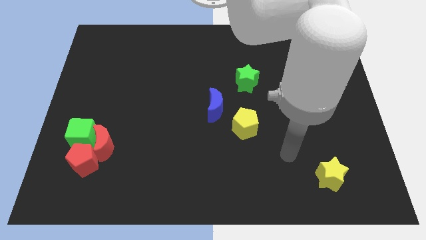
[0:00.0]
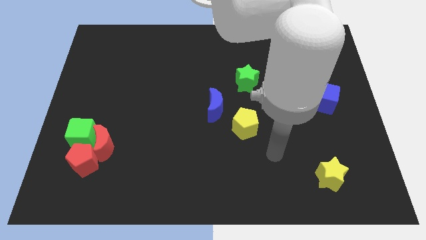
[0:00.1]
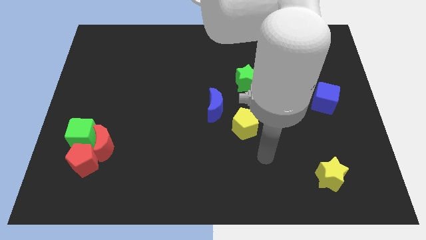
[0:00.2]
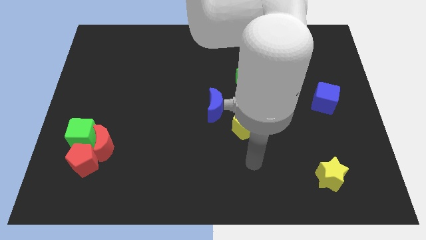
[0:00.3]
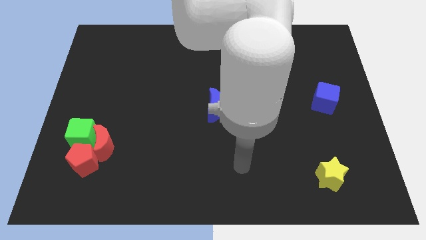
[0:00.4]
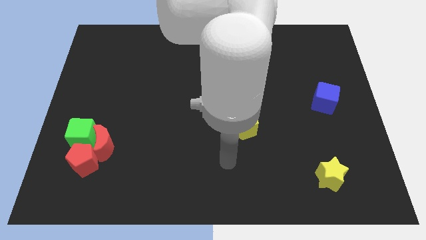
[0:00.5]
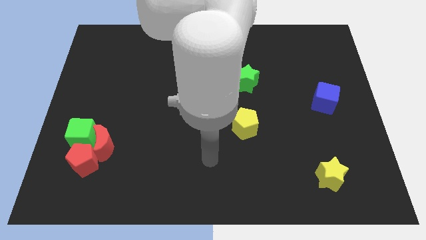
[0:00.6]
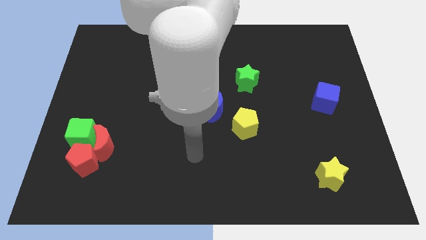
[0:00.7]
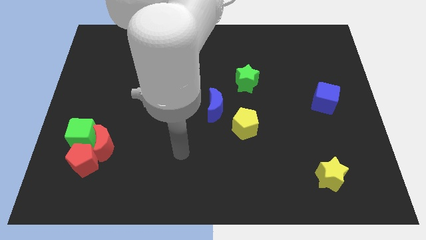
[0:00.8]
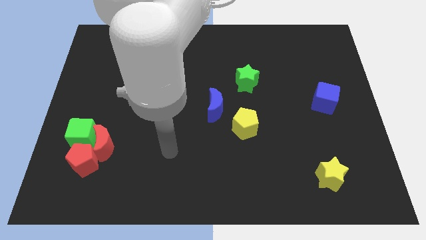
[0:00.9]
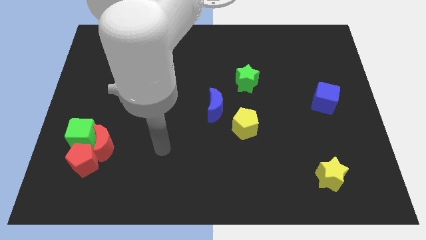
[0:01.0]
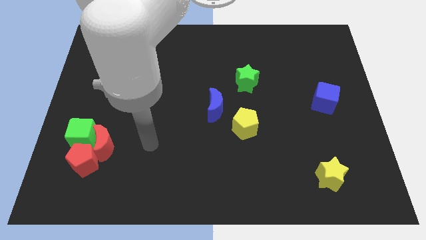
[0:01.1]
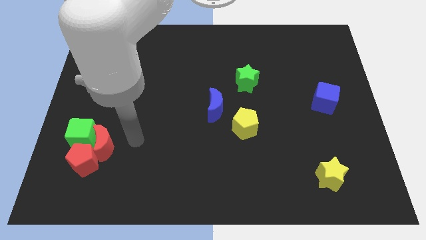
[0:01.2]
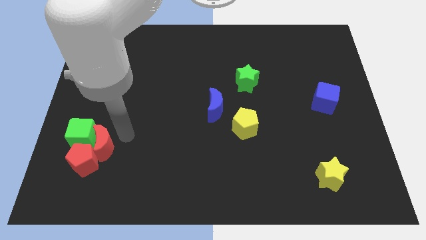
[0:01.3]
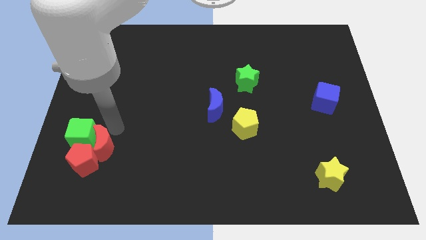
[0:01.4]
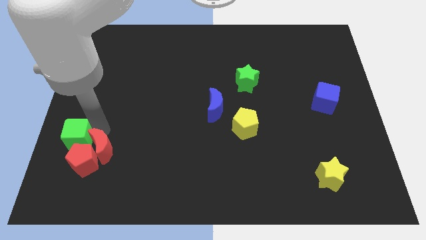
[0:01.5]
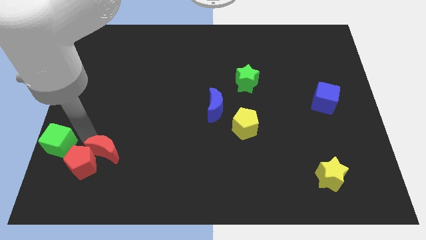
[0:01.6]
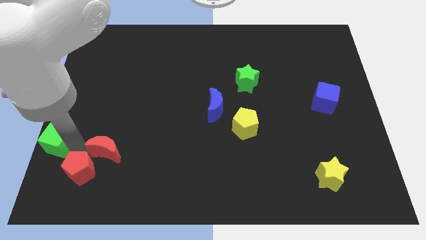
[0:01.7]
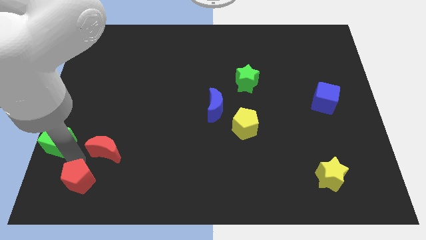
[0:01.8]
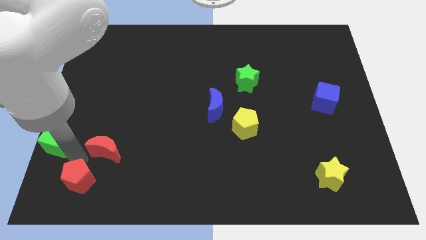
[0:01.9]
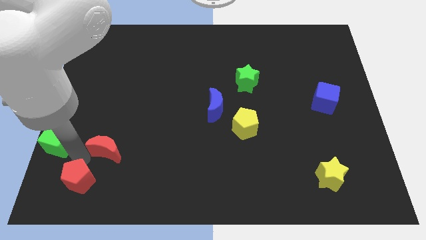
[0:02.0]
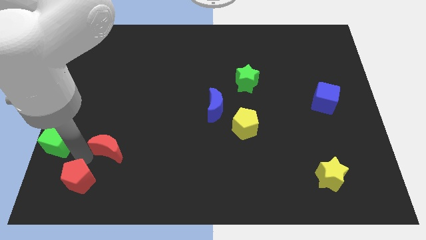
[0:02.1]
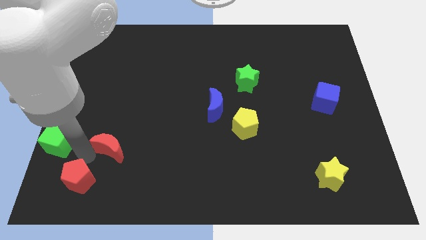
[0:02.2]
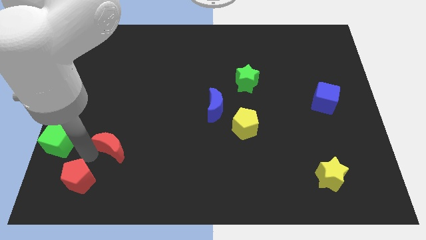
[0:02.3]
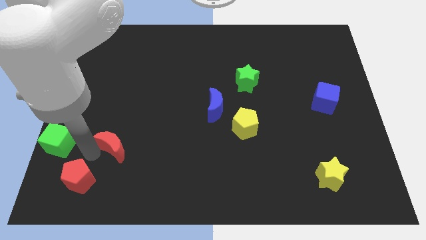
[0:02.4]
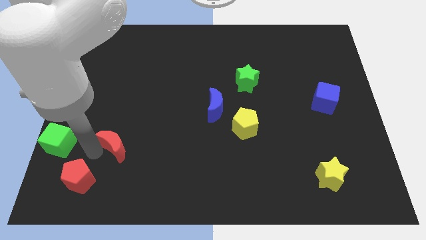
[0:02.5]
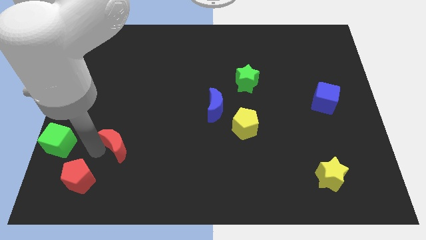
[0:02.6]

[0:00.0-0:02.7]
separate the red moon from the red pentagon and green cube

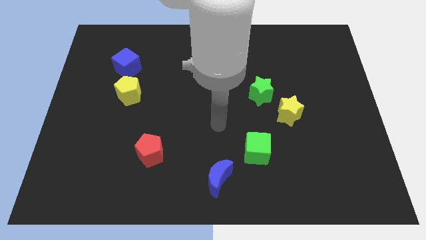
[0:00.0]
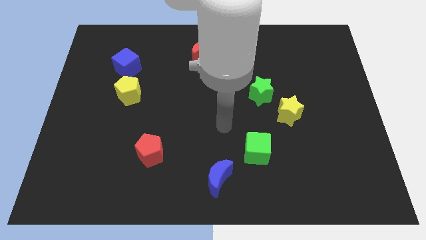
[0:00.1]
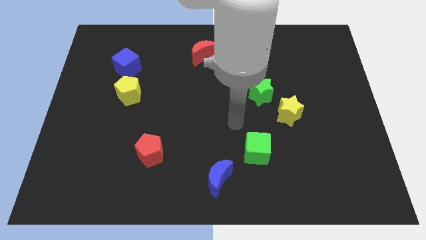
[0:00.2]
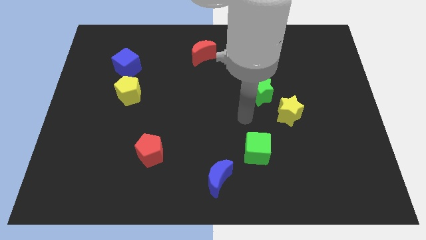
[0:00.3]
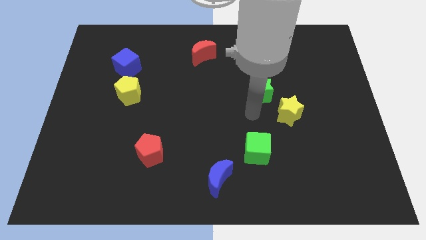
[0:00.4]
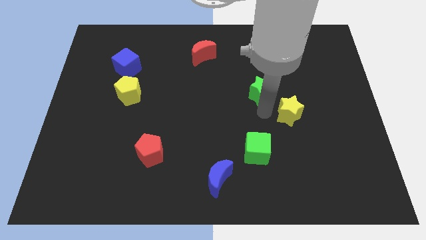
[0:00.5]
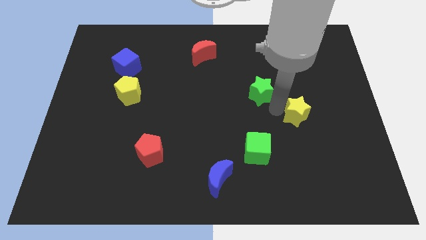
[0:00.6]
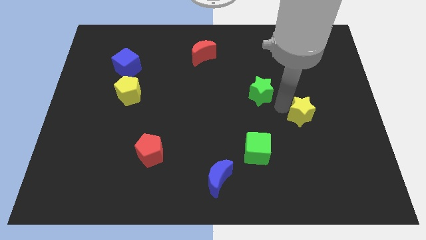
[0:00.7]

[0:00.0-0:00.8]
pull the green star apart from the yellow star

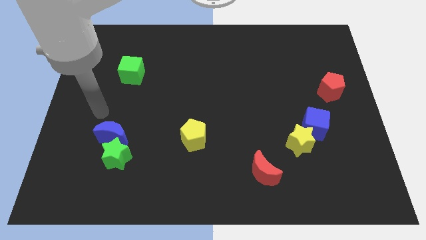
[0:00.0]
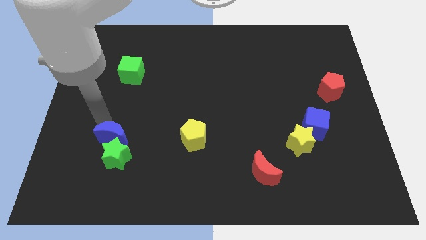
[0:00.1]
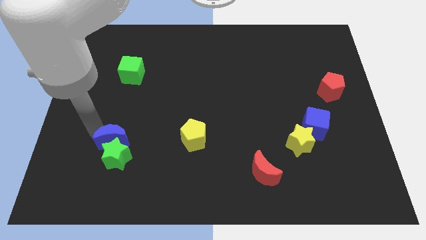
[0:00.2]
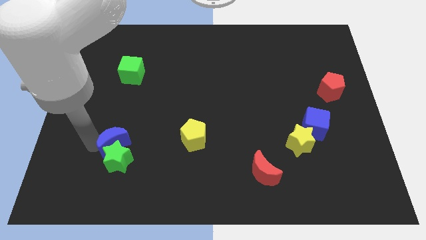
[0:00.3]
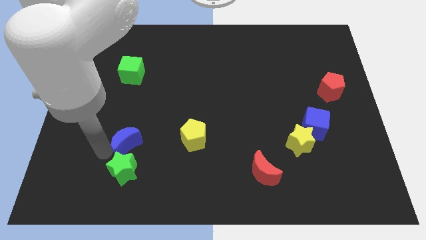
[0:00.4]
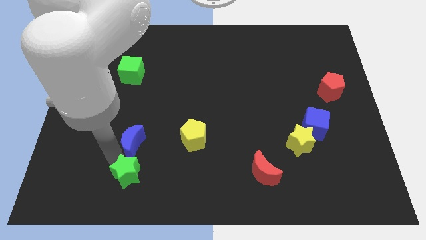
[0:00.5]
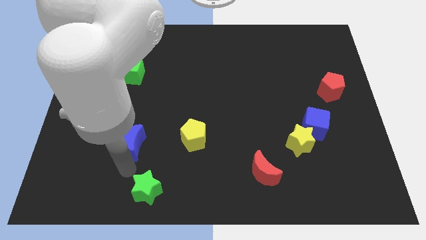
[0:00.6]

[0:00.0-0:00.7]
separate the blue moon from the green star

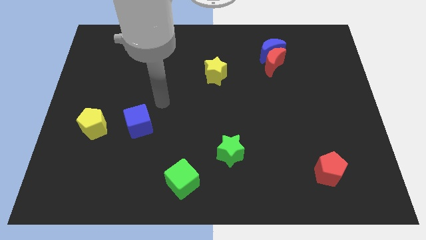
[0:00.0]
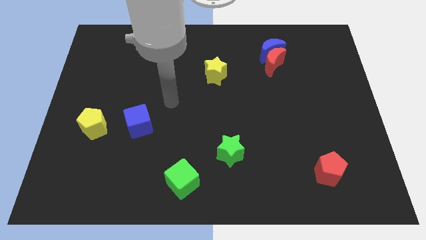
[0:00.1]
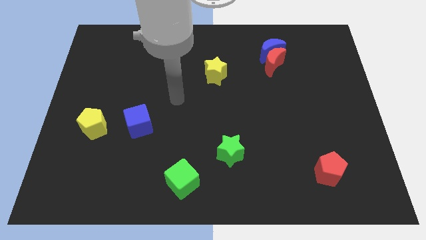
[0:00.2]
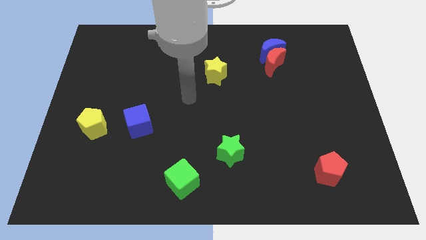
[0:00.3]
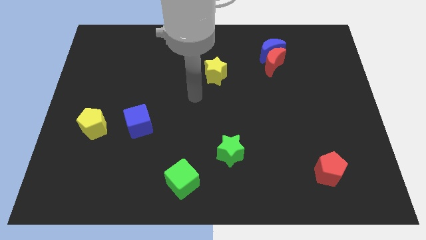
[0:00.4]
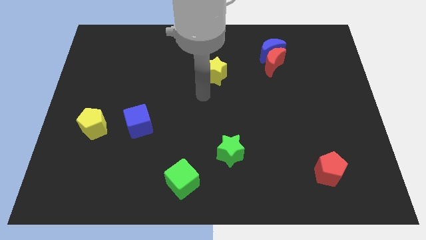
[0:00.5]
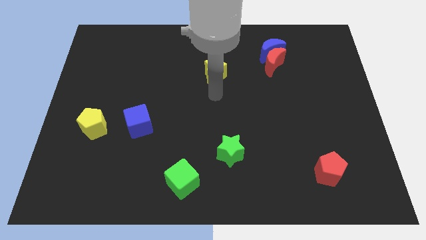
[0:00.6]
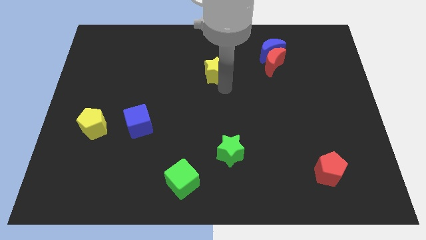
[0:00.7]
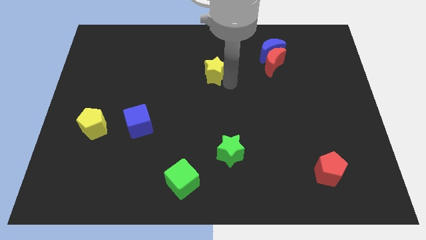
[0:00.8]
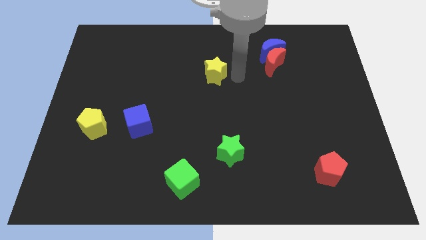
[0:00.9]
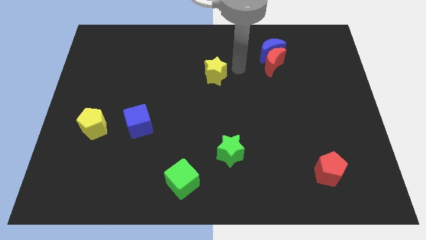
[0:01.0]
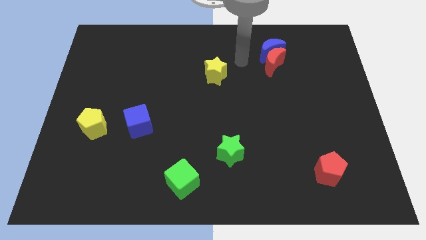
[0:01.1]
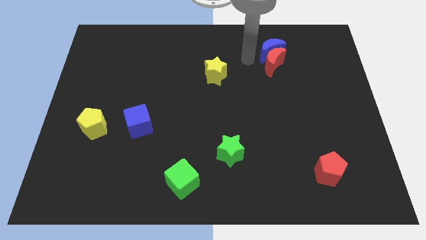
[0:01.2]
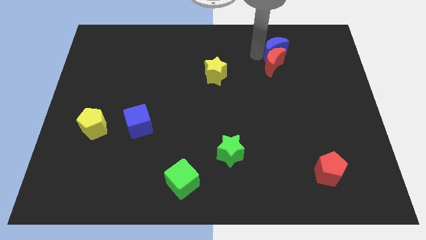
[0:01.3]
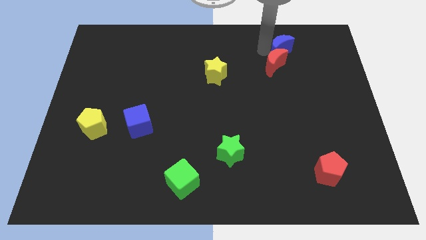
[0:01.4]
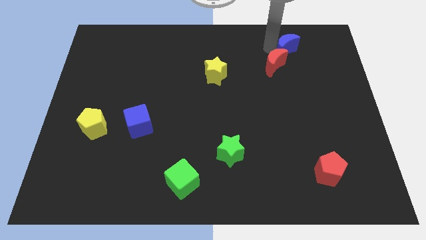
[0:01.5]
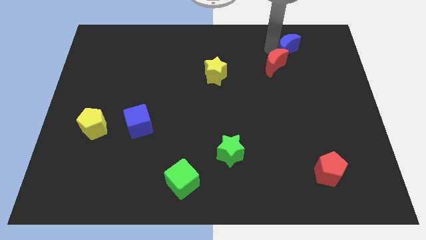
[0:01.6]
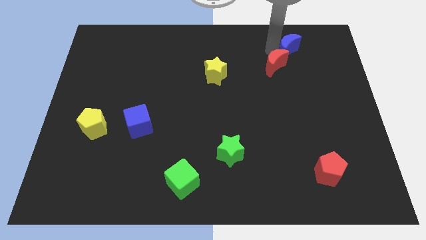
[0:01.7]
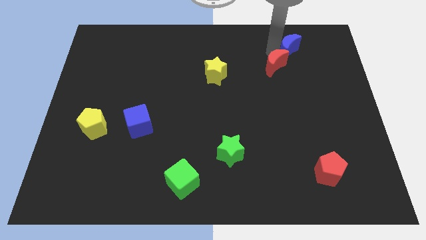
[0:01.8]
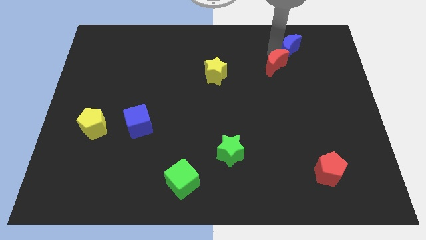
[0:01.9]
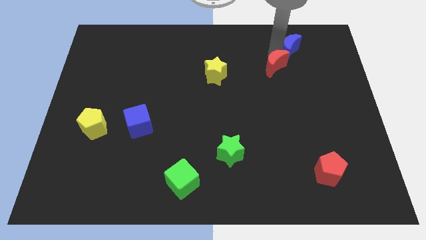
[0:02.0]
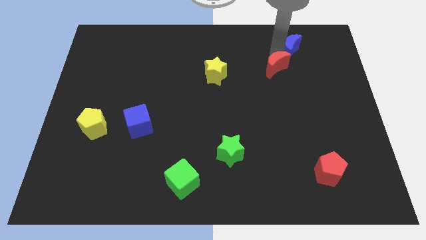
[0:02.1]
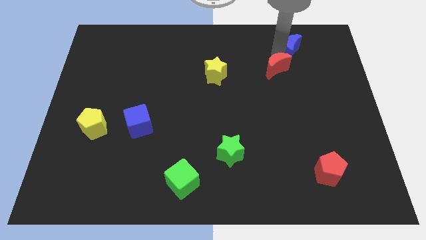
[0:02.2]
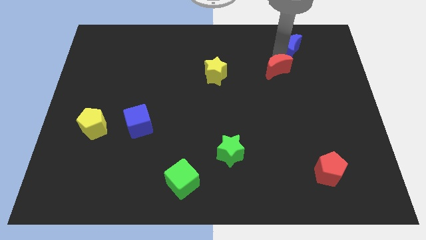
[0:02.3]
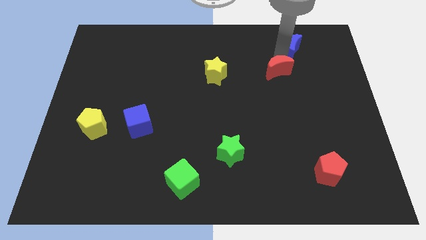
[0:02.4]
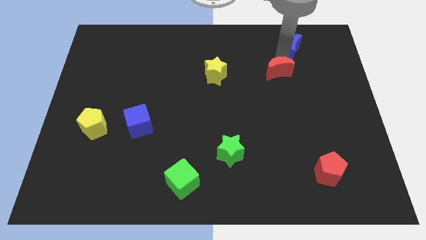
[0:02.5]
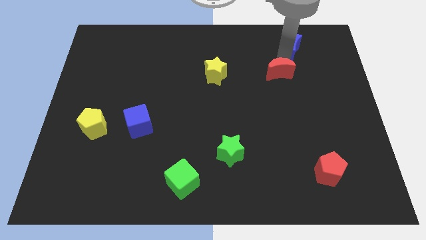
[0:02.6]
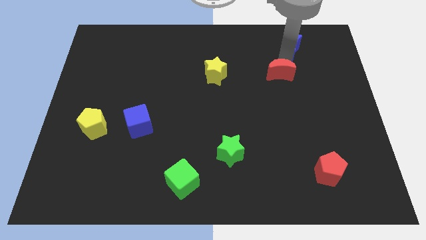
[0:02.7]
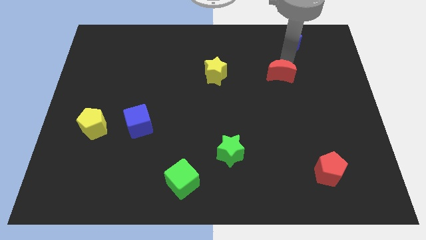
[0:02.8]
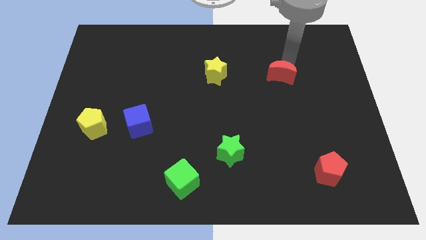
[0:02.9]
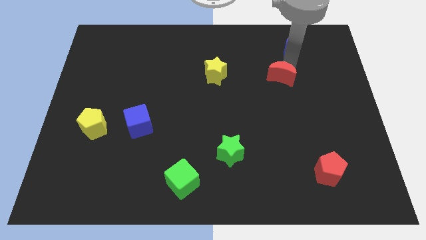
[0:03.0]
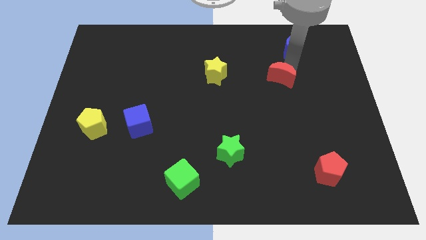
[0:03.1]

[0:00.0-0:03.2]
move the red moon away from the blue moon

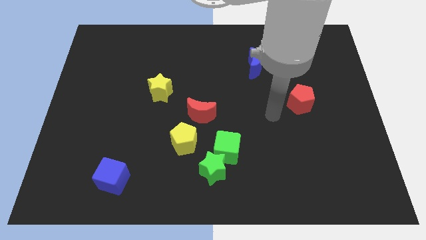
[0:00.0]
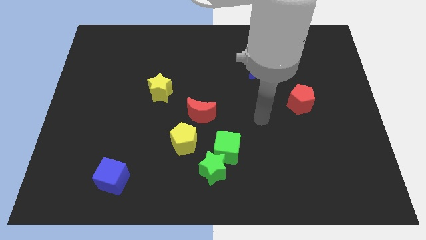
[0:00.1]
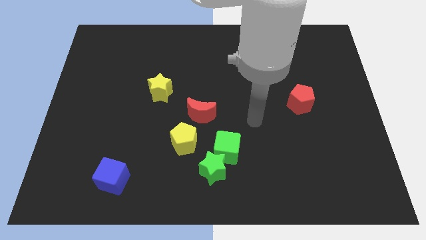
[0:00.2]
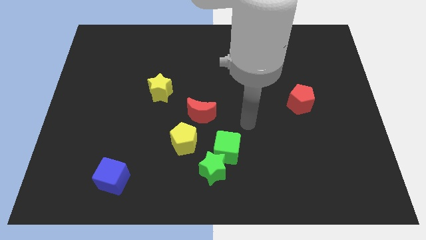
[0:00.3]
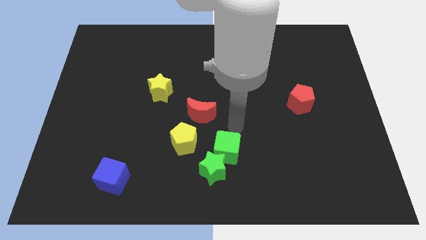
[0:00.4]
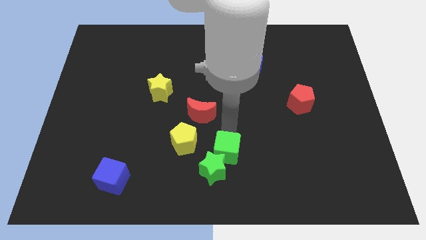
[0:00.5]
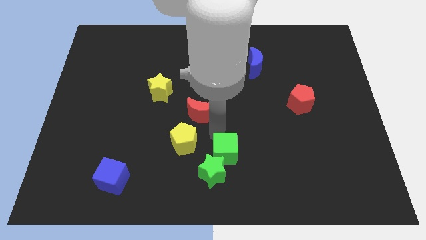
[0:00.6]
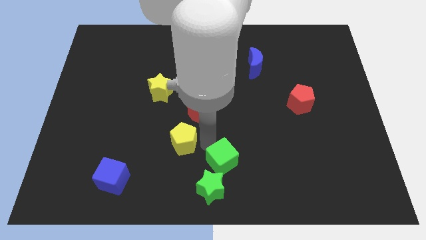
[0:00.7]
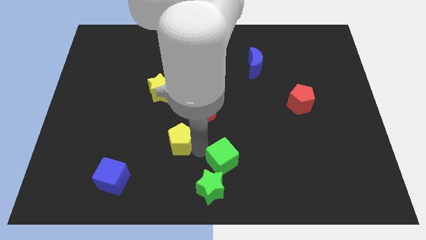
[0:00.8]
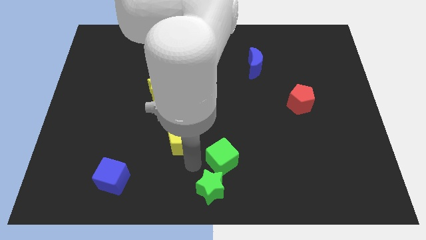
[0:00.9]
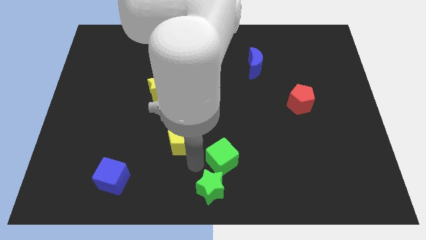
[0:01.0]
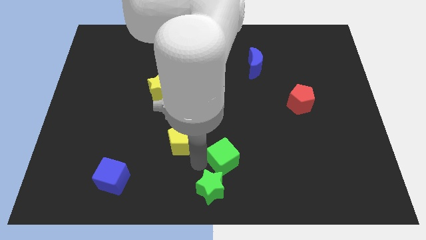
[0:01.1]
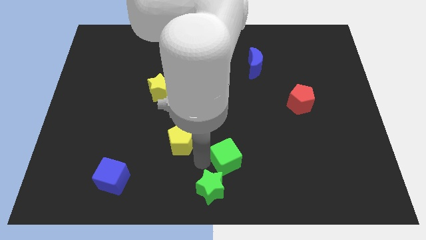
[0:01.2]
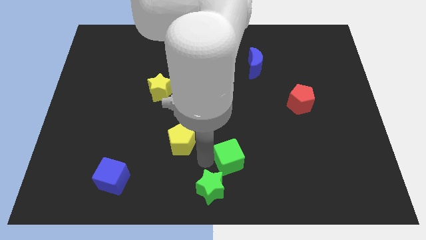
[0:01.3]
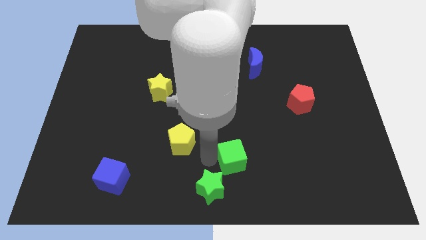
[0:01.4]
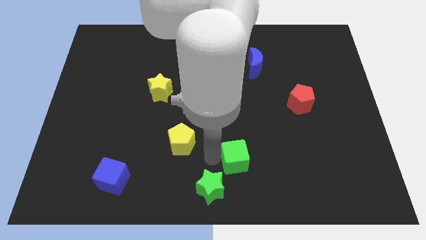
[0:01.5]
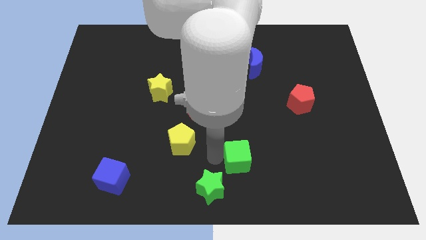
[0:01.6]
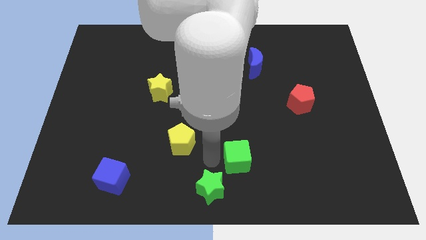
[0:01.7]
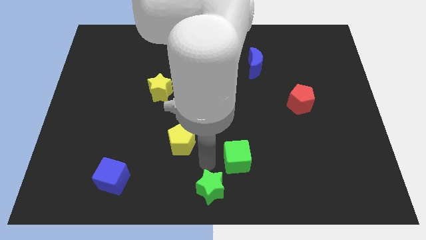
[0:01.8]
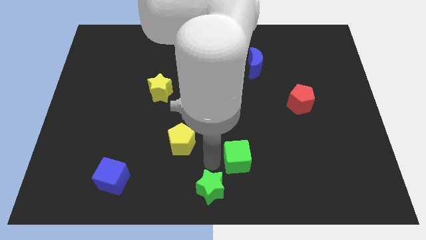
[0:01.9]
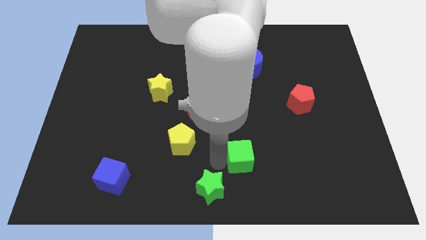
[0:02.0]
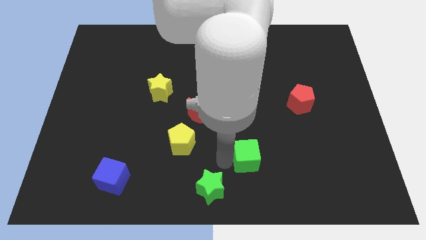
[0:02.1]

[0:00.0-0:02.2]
move the green cube away from the green star and yellow pentagon
